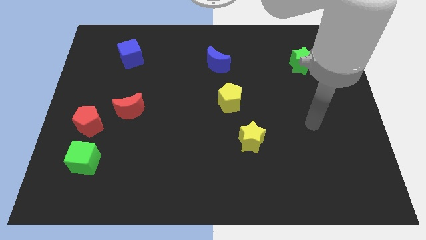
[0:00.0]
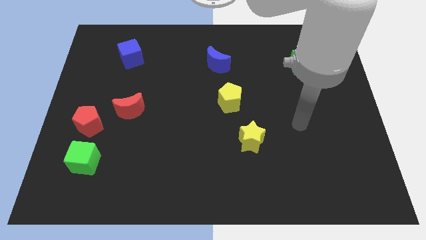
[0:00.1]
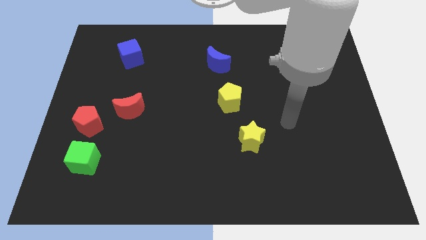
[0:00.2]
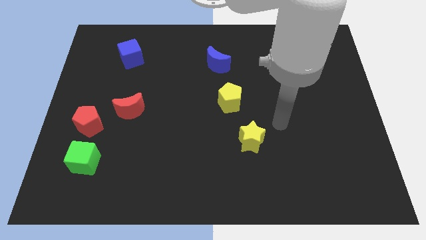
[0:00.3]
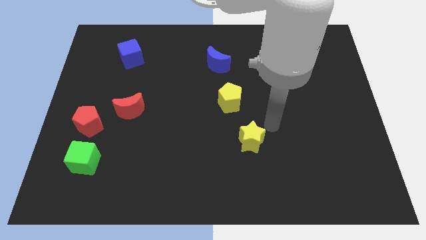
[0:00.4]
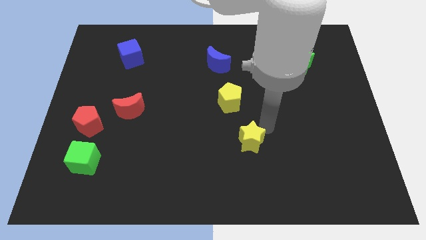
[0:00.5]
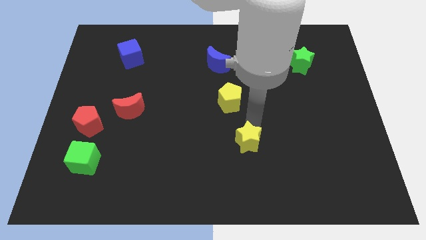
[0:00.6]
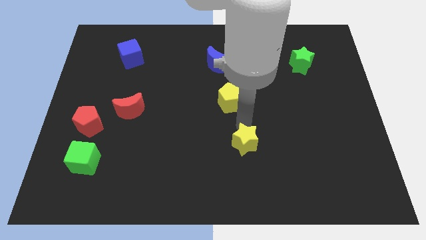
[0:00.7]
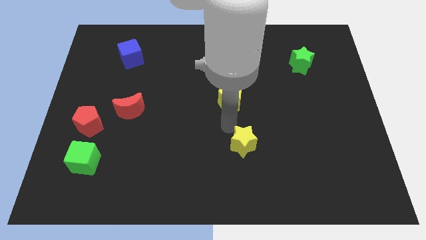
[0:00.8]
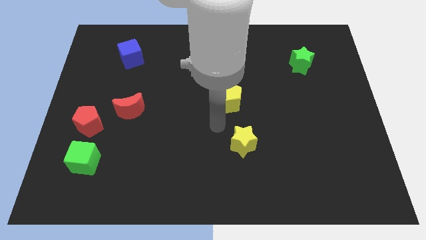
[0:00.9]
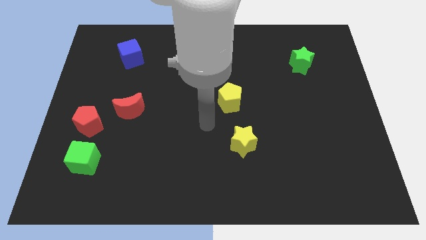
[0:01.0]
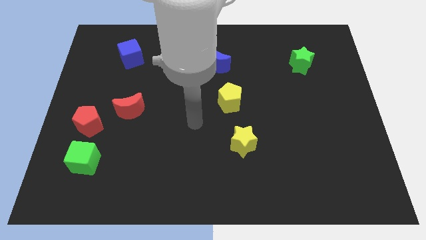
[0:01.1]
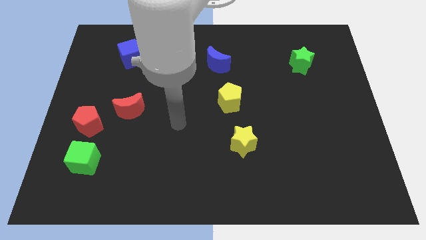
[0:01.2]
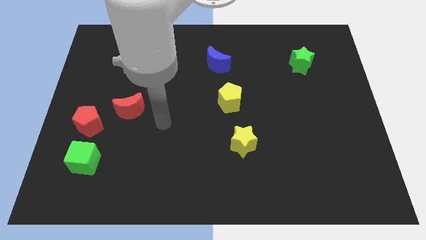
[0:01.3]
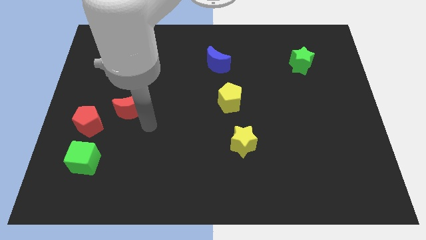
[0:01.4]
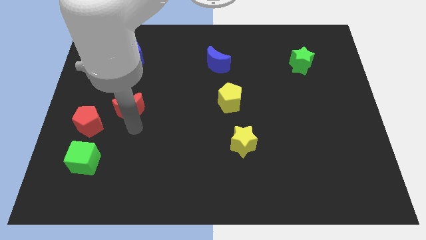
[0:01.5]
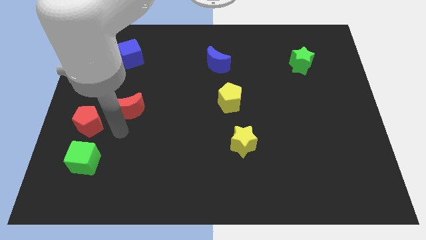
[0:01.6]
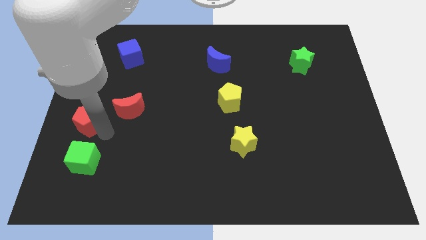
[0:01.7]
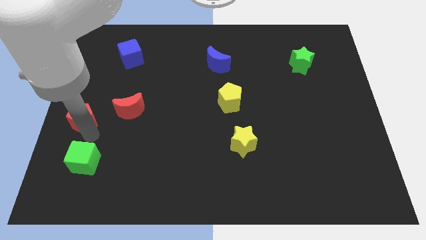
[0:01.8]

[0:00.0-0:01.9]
pull the green cube apart from the red pentagon

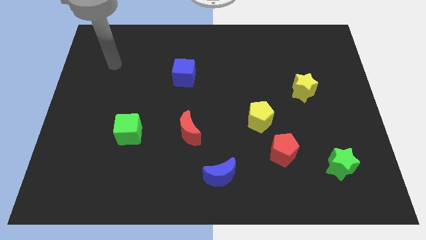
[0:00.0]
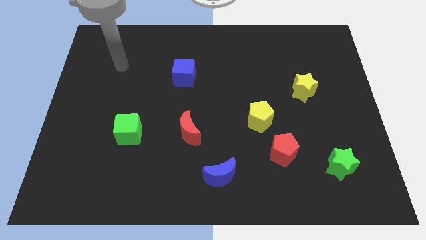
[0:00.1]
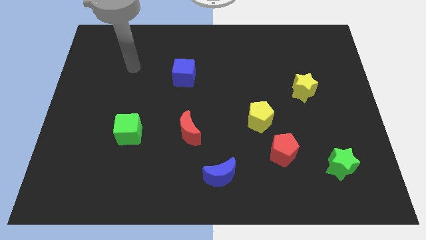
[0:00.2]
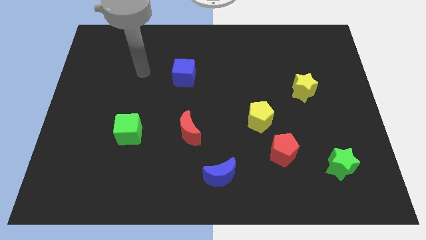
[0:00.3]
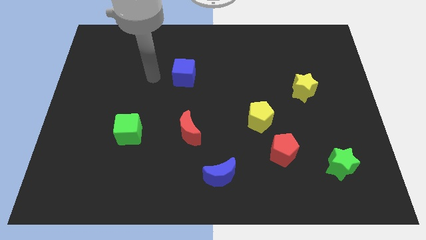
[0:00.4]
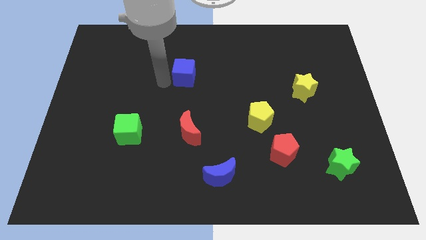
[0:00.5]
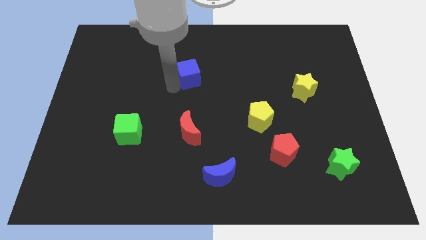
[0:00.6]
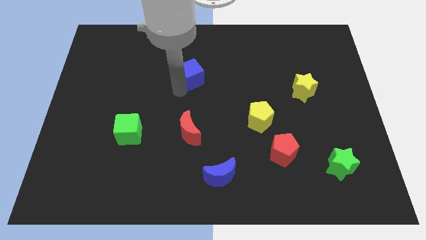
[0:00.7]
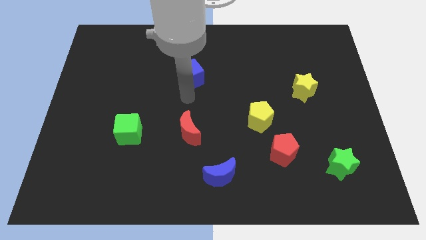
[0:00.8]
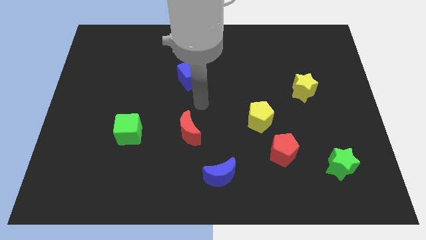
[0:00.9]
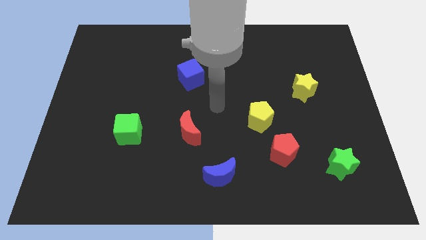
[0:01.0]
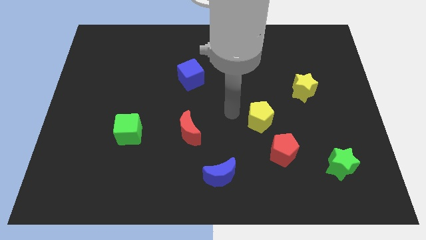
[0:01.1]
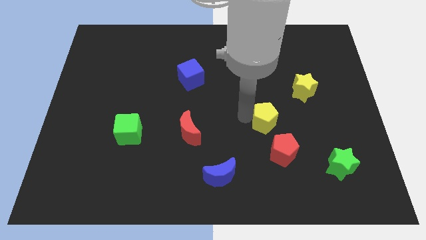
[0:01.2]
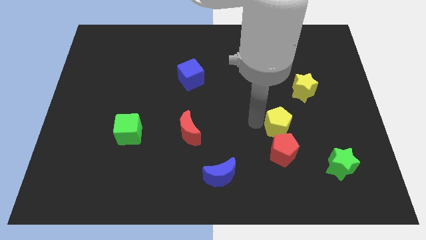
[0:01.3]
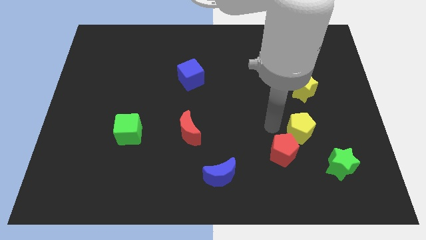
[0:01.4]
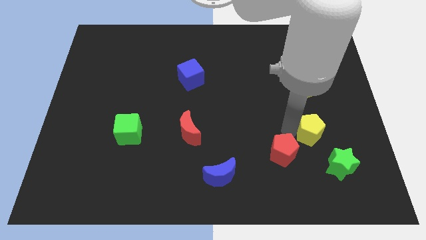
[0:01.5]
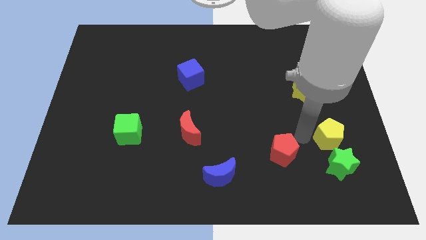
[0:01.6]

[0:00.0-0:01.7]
pull the red pentagon apart from the yellow pentagon

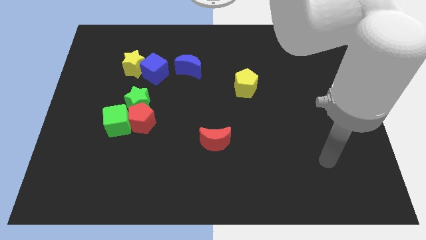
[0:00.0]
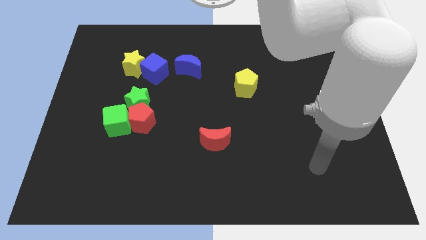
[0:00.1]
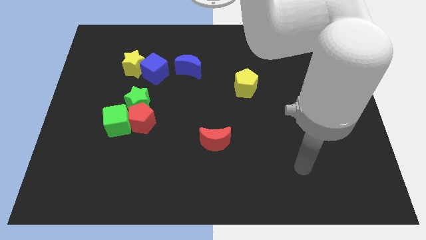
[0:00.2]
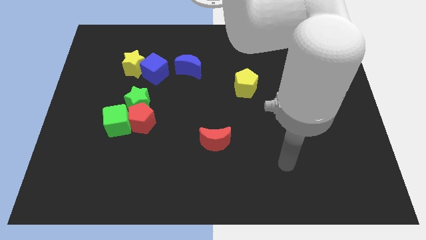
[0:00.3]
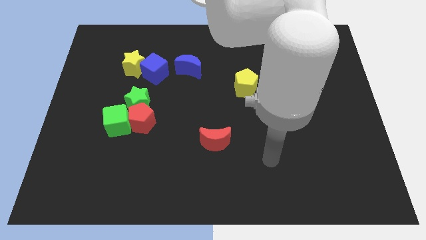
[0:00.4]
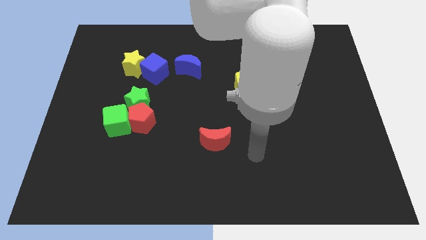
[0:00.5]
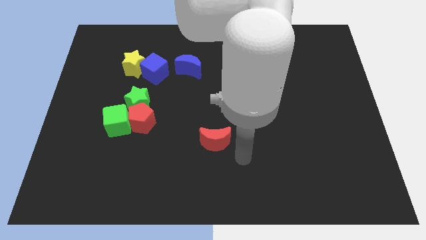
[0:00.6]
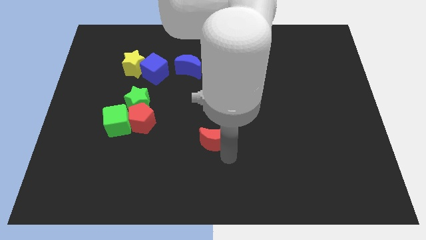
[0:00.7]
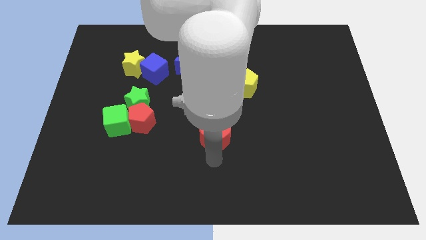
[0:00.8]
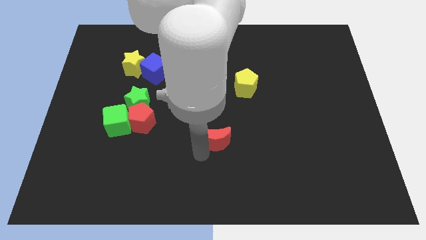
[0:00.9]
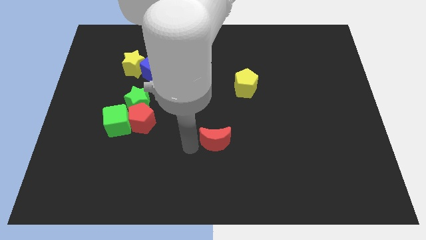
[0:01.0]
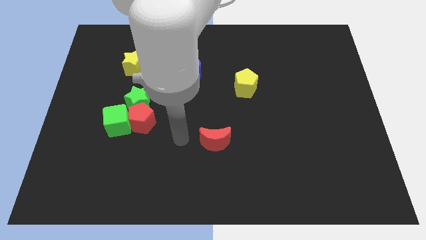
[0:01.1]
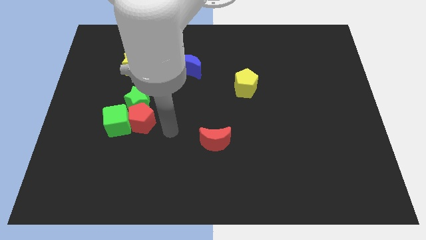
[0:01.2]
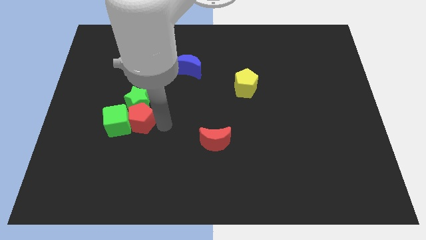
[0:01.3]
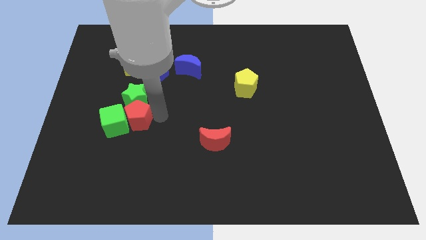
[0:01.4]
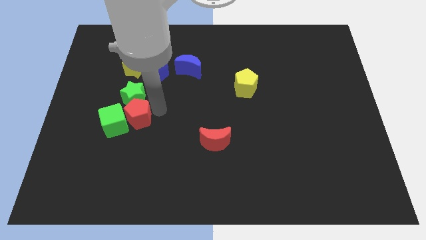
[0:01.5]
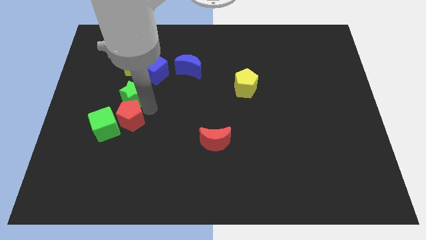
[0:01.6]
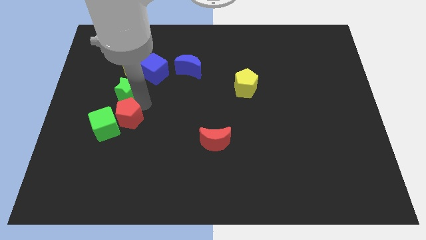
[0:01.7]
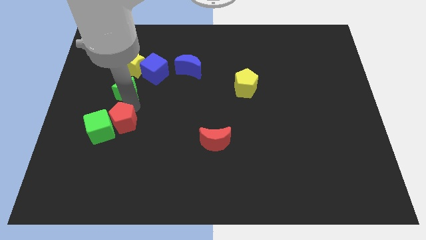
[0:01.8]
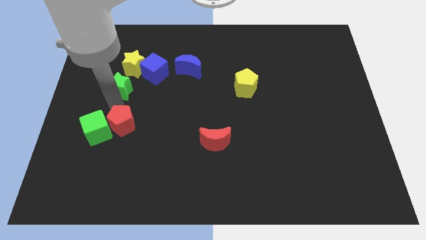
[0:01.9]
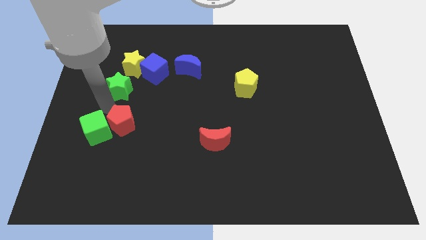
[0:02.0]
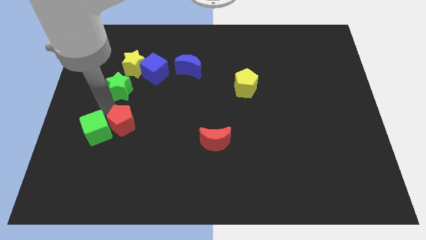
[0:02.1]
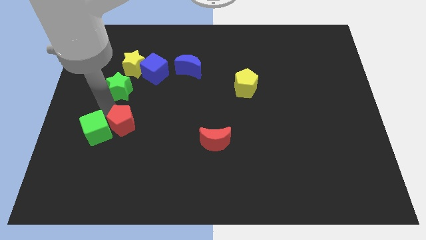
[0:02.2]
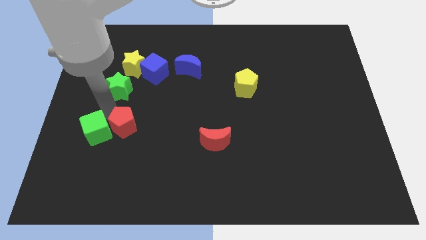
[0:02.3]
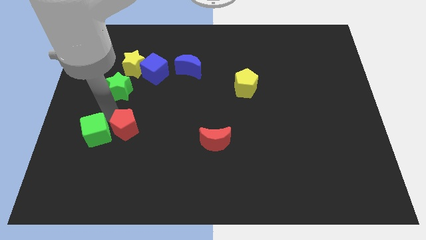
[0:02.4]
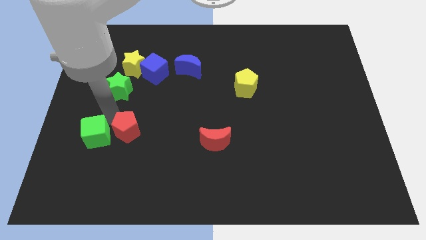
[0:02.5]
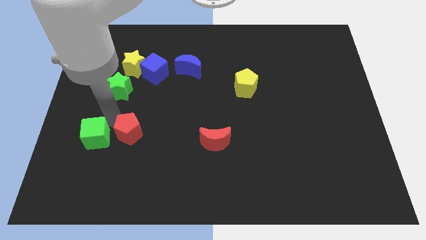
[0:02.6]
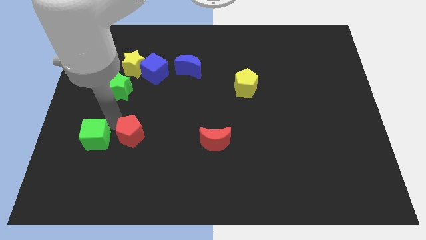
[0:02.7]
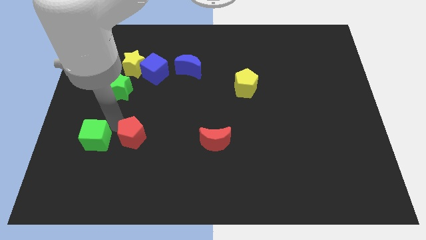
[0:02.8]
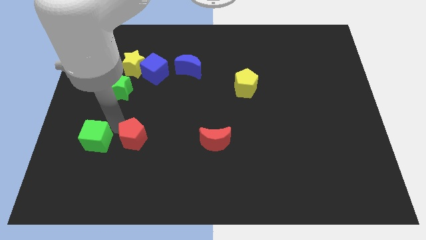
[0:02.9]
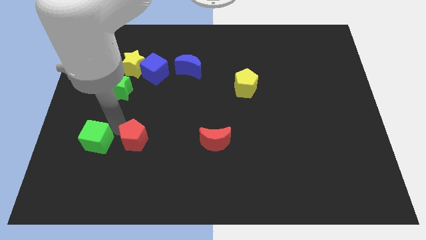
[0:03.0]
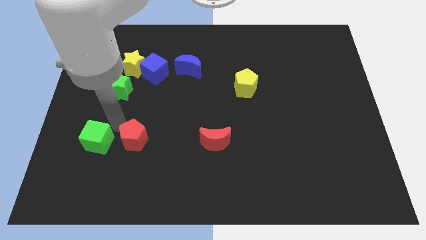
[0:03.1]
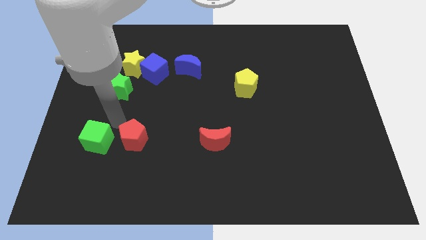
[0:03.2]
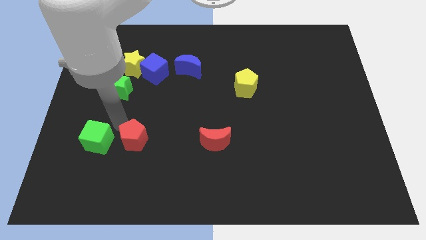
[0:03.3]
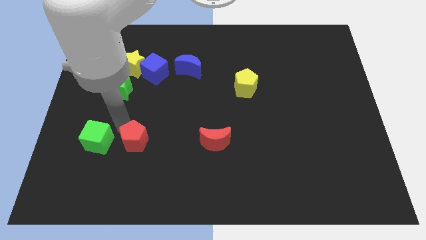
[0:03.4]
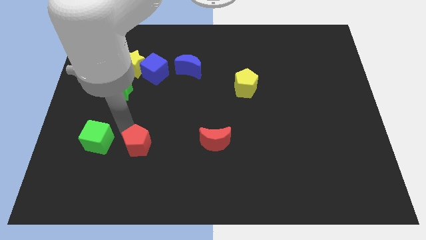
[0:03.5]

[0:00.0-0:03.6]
separate the red pentagon from the green star and green cube

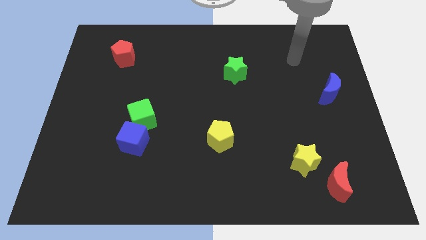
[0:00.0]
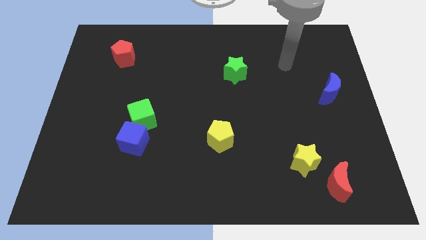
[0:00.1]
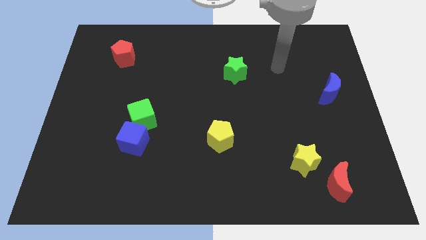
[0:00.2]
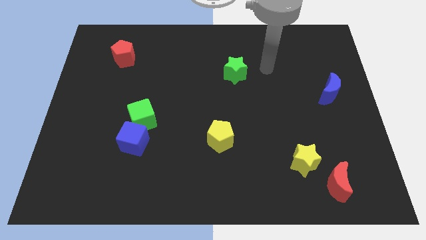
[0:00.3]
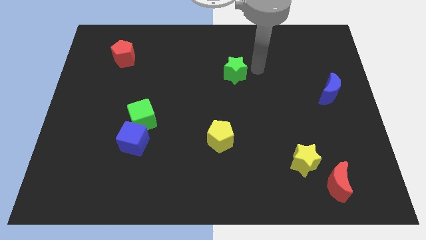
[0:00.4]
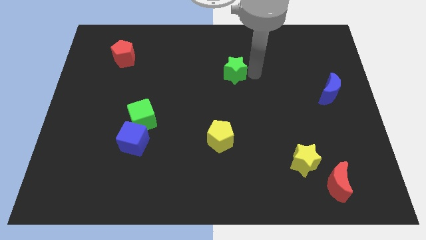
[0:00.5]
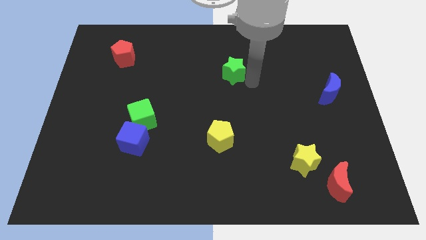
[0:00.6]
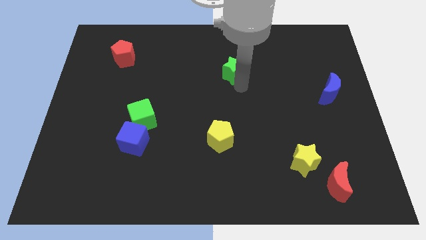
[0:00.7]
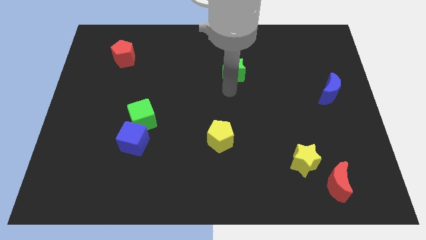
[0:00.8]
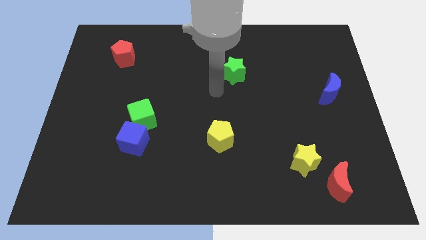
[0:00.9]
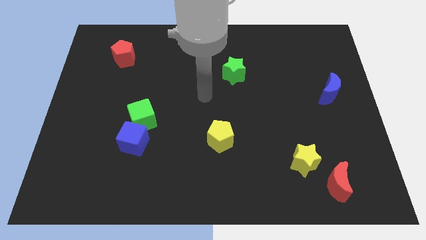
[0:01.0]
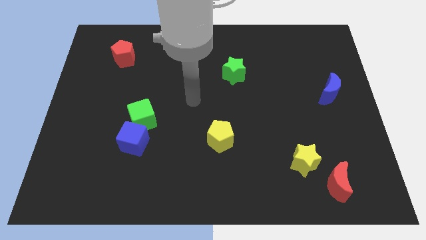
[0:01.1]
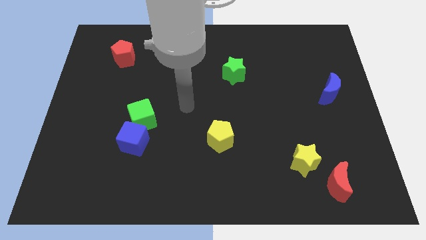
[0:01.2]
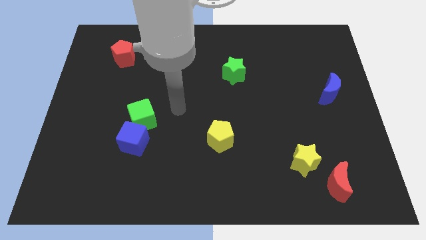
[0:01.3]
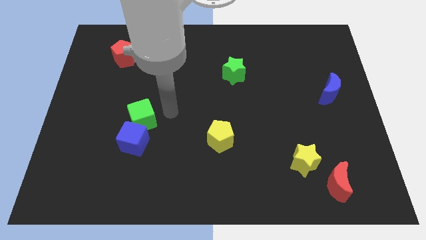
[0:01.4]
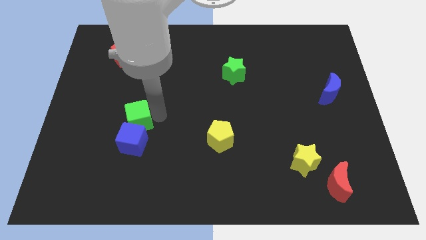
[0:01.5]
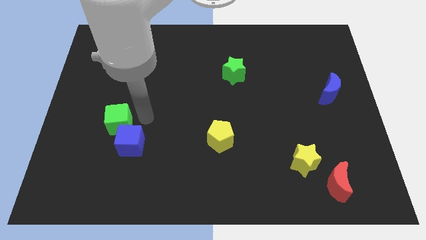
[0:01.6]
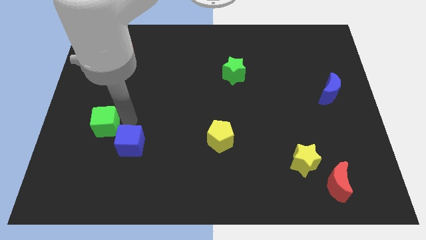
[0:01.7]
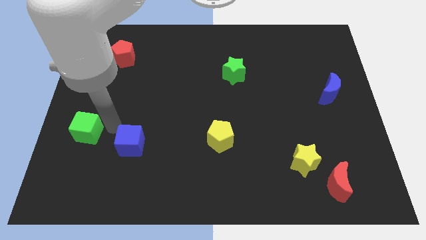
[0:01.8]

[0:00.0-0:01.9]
pull the blue cube apart from the green cube

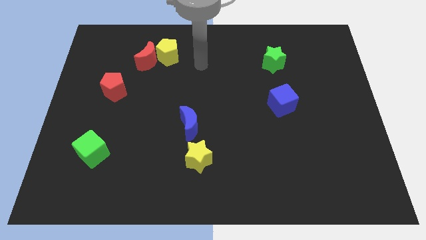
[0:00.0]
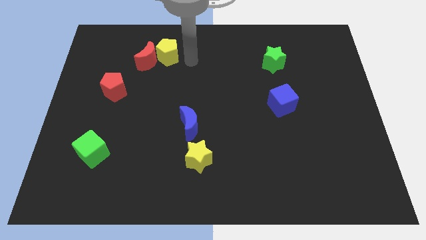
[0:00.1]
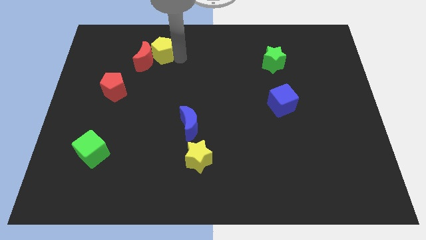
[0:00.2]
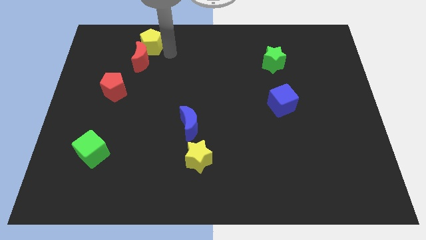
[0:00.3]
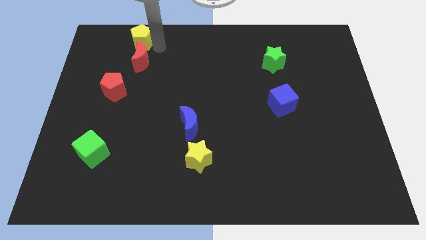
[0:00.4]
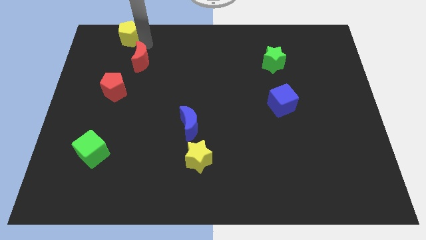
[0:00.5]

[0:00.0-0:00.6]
separate the red moon from the yellow pentagon
